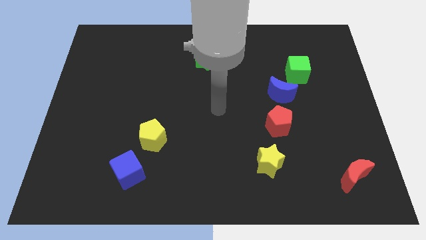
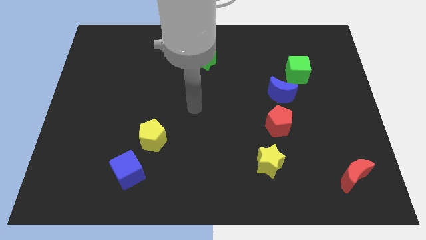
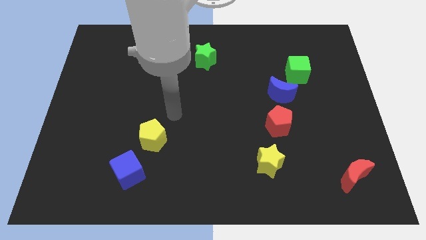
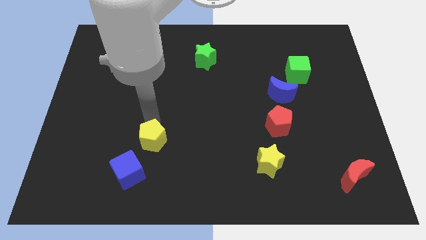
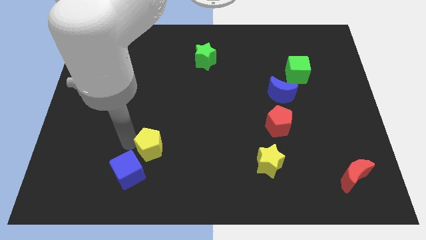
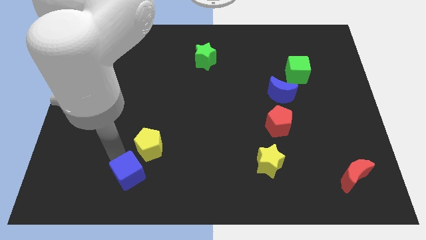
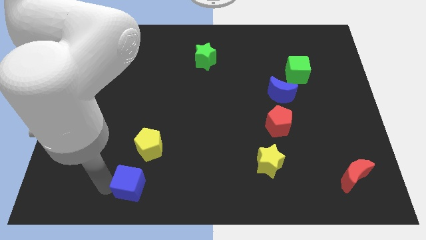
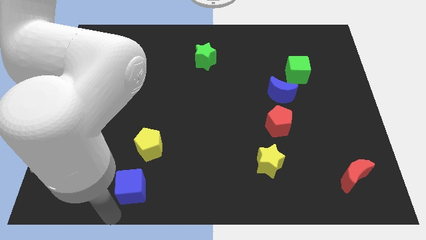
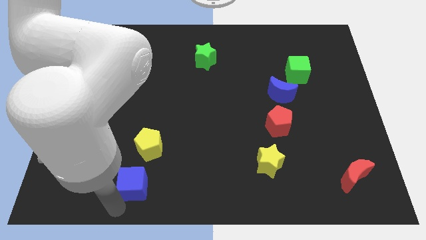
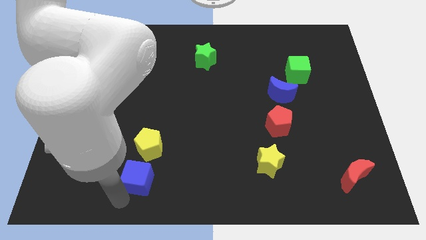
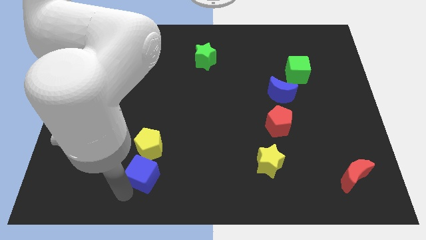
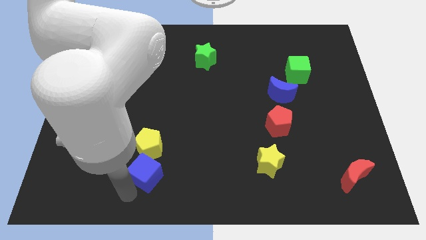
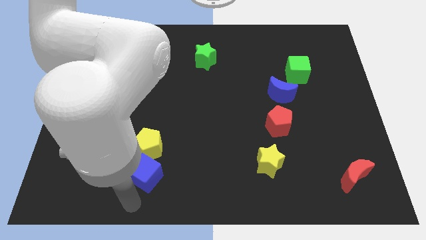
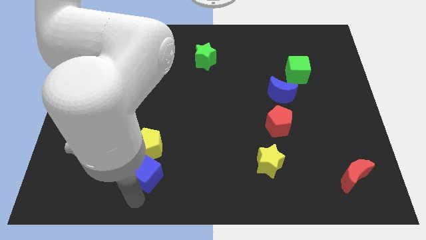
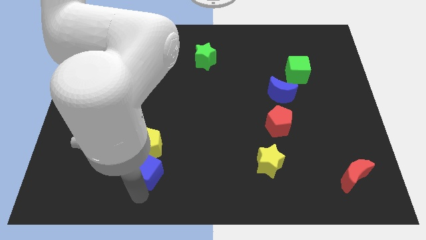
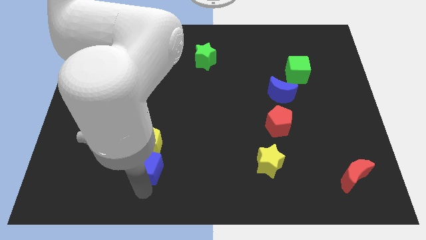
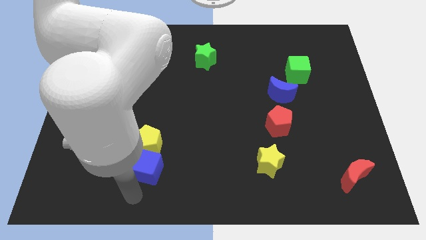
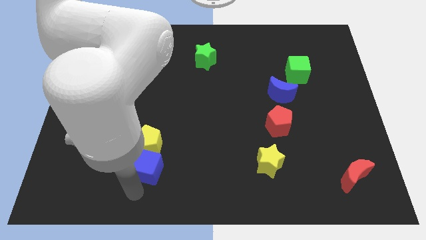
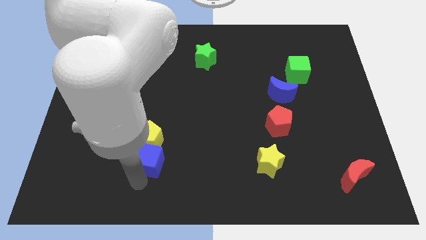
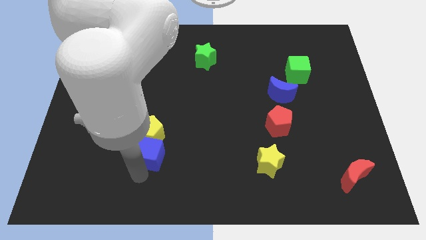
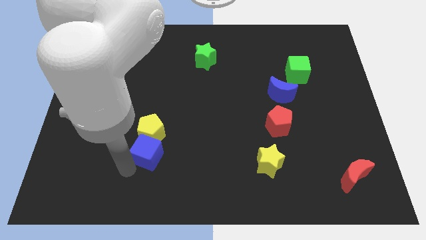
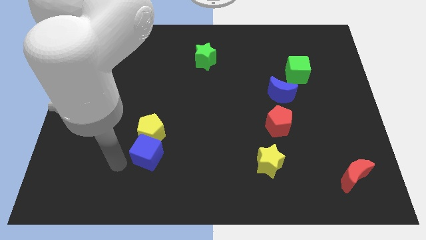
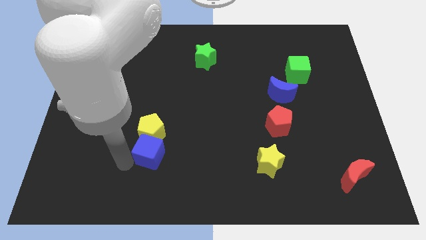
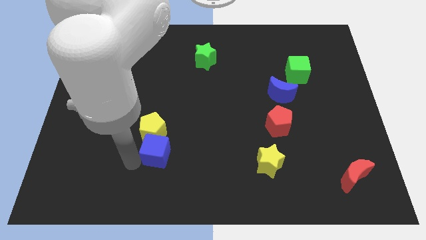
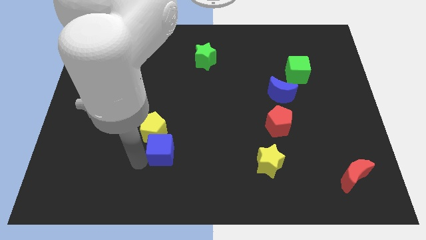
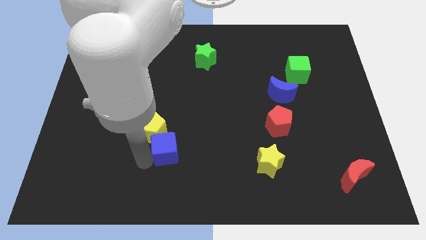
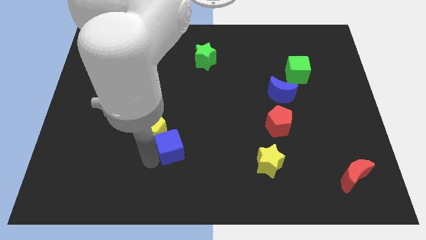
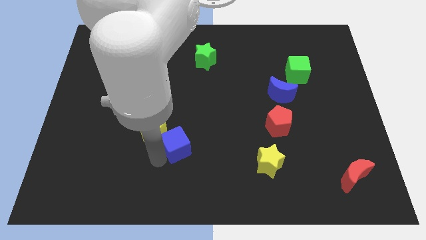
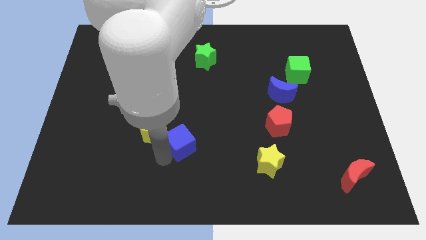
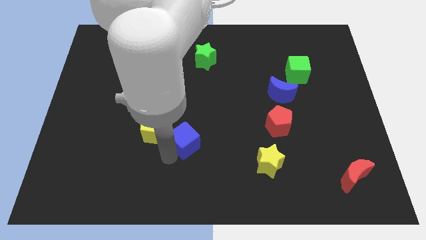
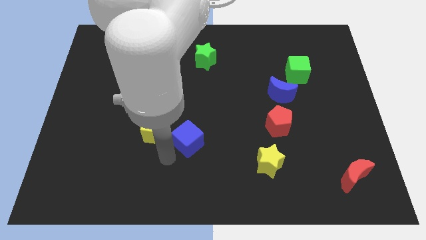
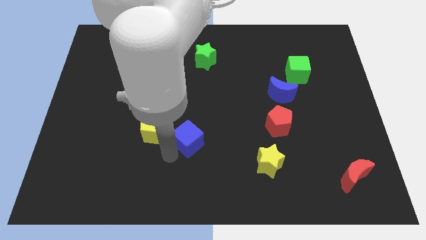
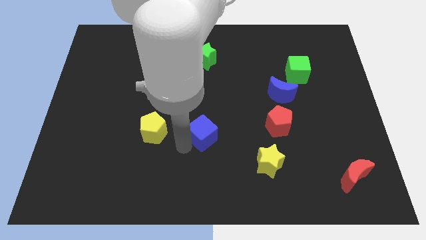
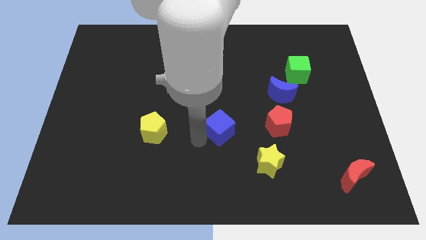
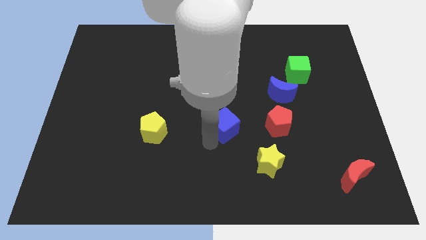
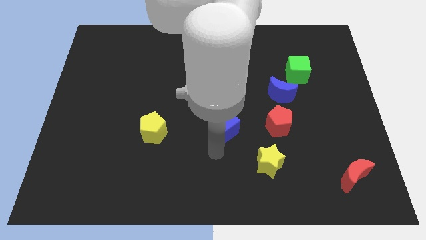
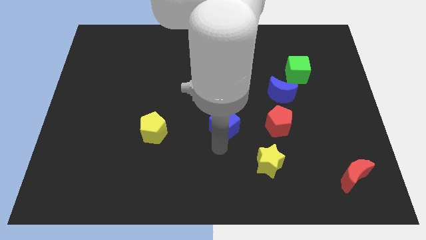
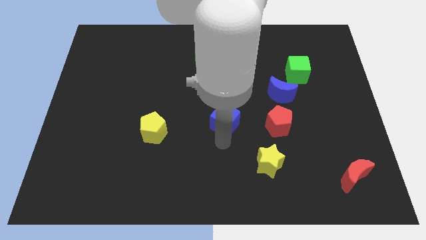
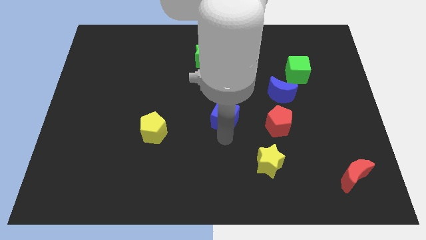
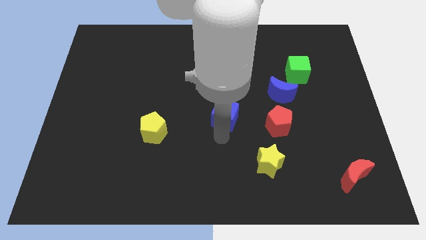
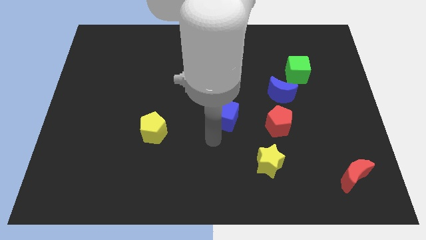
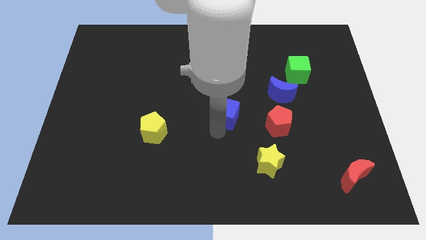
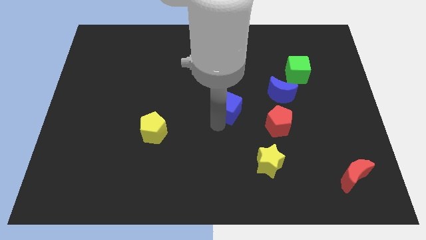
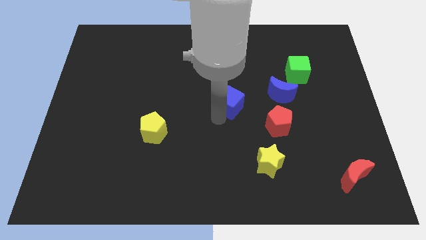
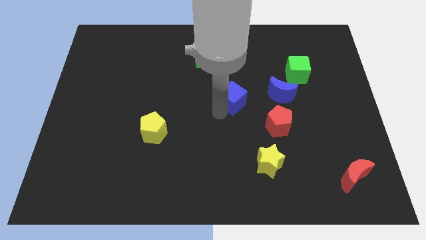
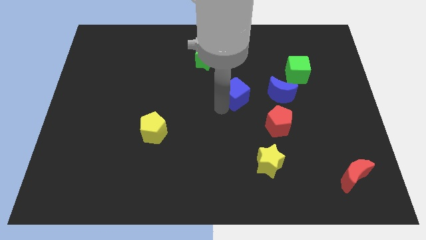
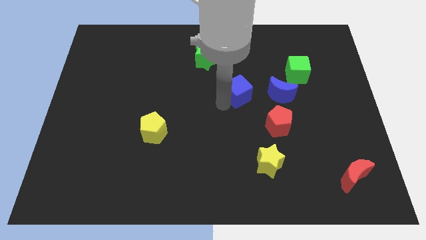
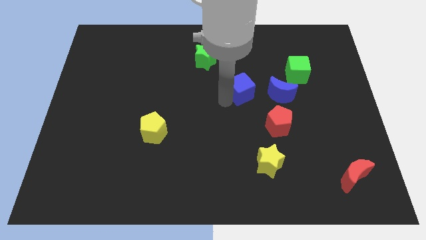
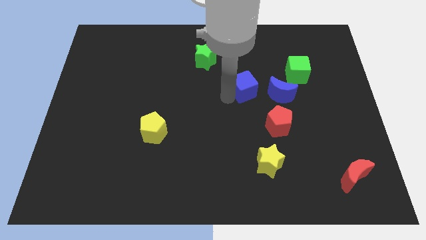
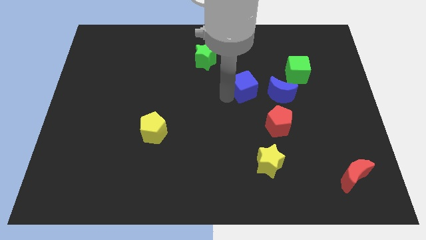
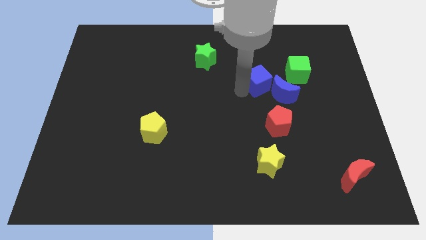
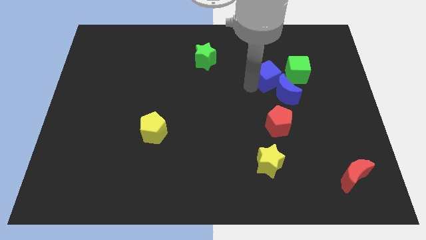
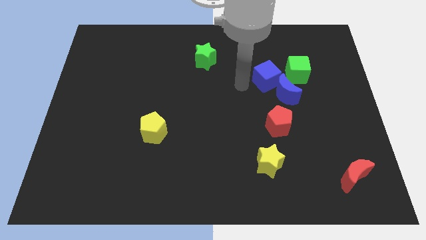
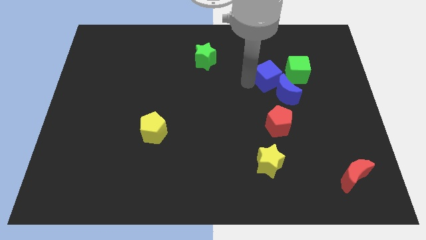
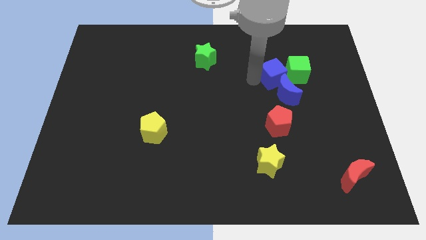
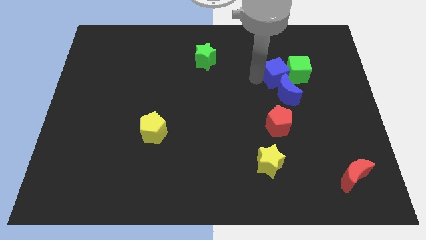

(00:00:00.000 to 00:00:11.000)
push the blue cube towards the green cube

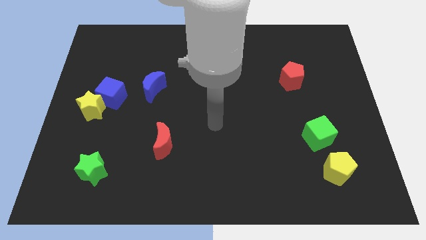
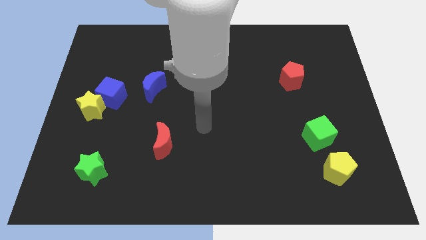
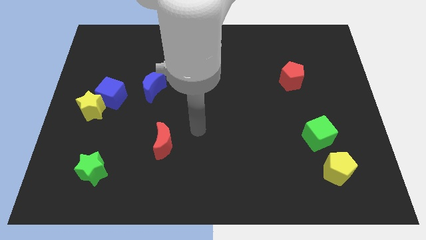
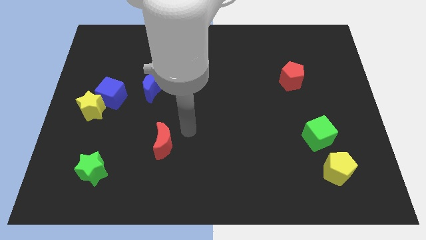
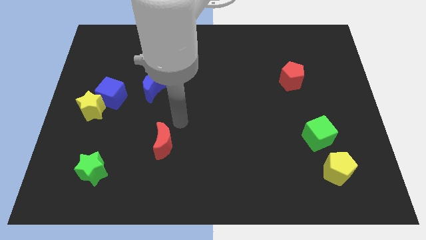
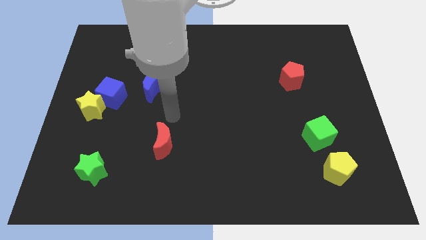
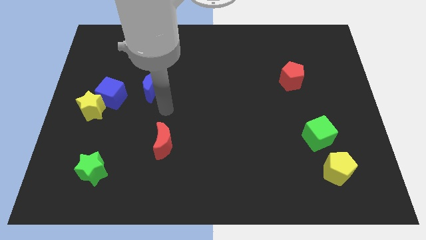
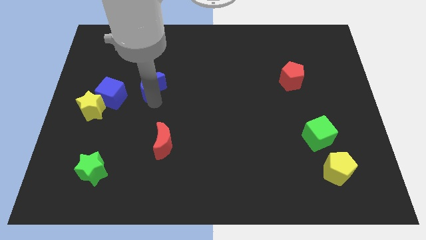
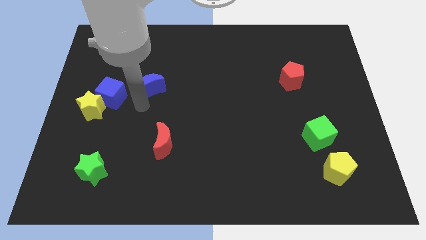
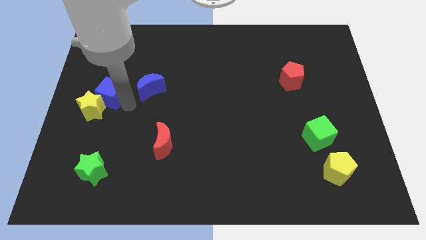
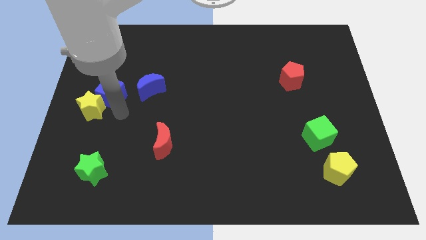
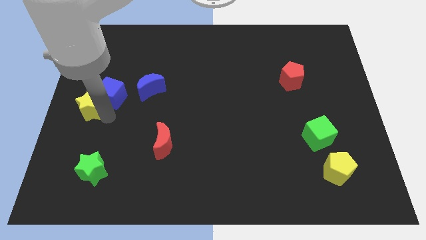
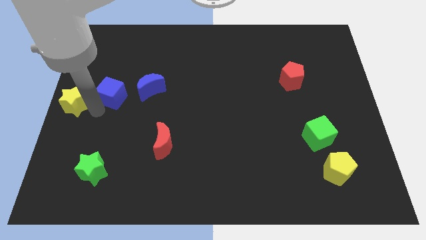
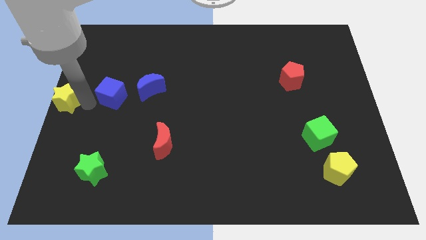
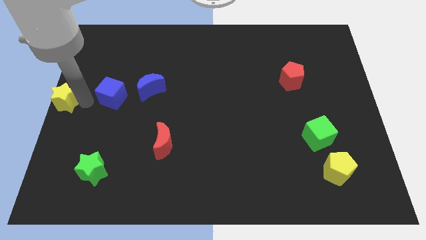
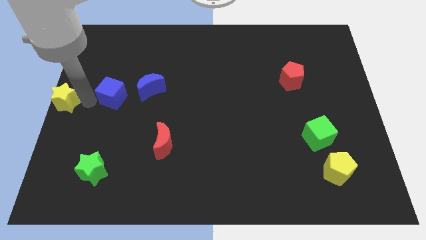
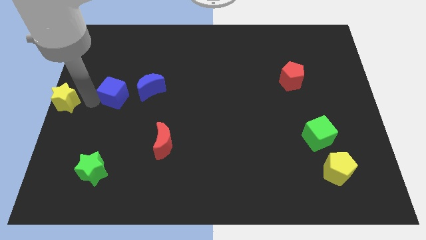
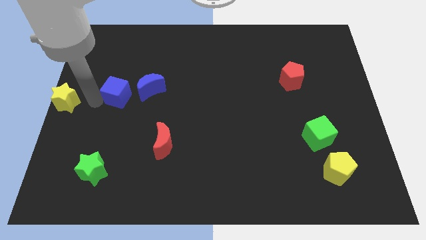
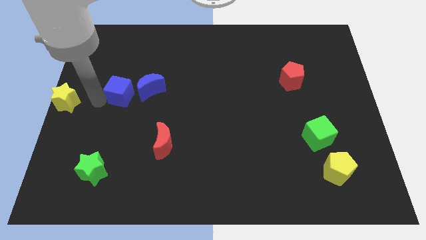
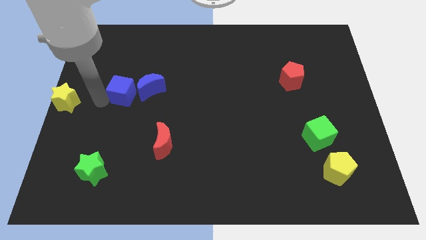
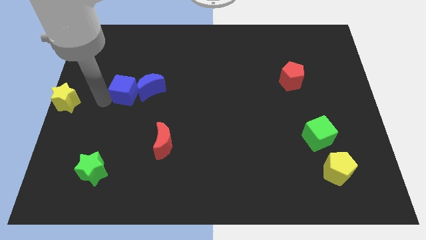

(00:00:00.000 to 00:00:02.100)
push the blue cube next to the blue moon
